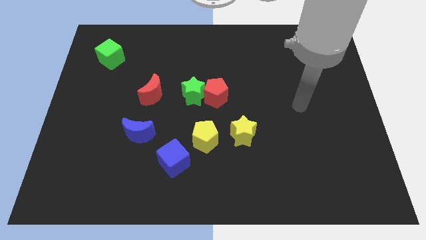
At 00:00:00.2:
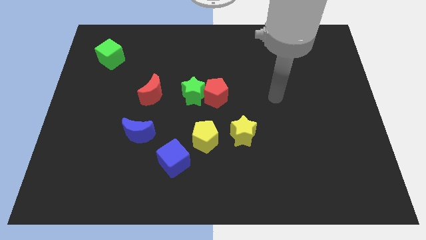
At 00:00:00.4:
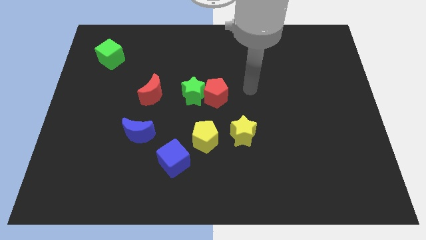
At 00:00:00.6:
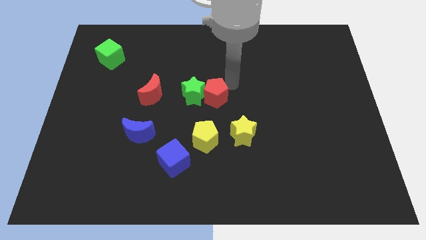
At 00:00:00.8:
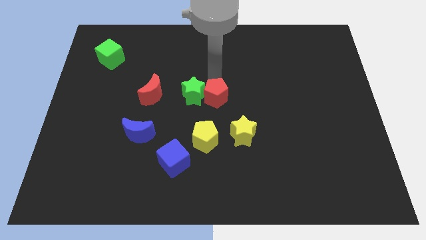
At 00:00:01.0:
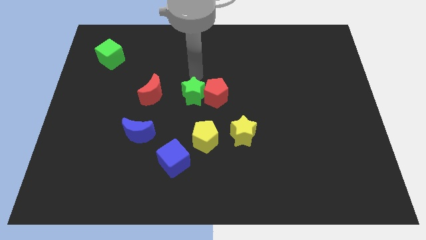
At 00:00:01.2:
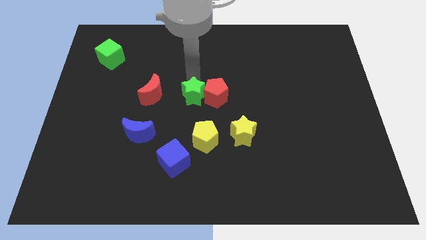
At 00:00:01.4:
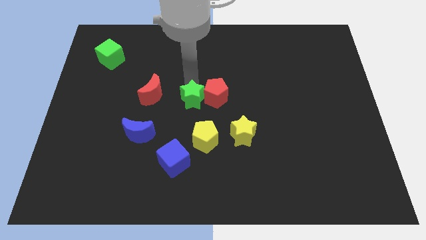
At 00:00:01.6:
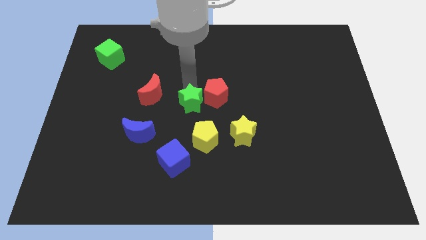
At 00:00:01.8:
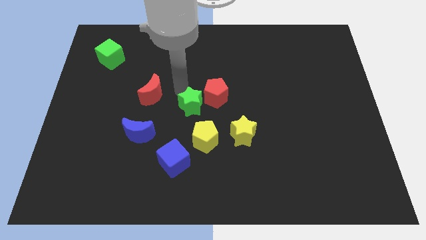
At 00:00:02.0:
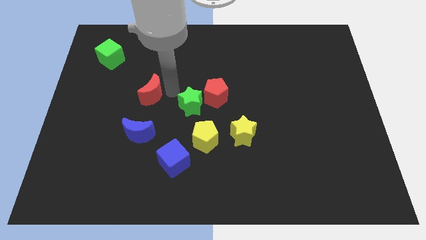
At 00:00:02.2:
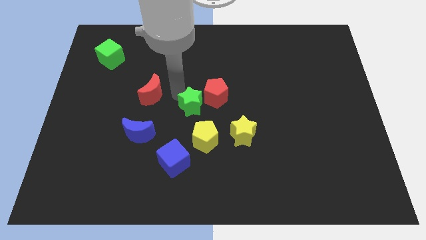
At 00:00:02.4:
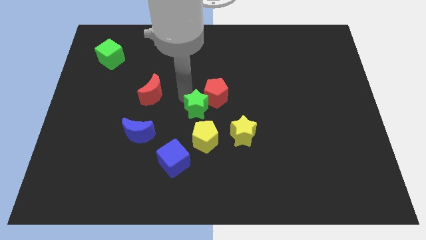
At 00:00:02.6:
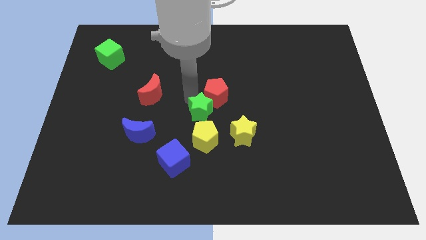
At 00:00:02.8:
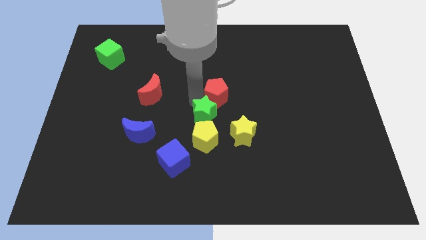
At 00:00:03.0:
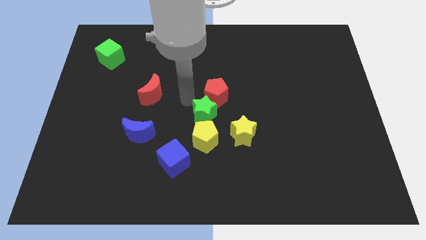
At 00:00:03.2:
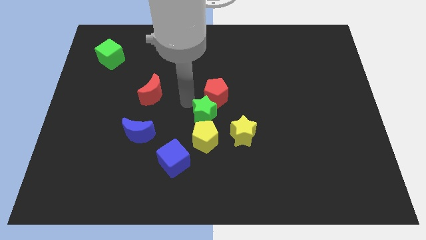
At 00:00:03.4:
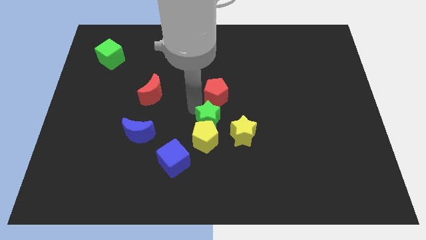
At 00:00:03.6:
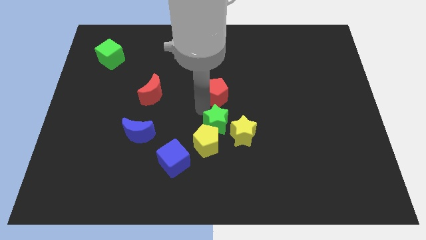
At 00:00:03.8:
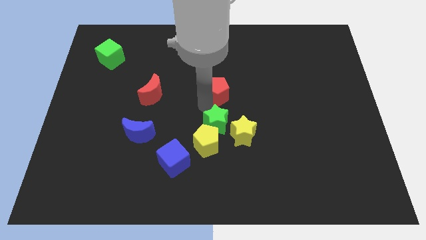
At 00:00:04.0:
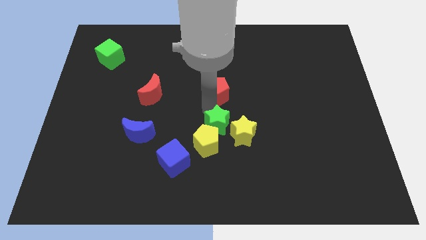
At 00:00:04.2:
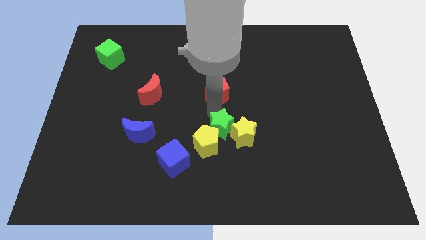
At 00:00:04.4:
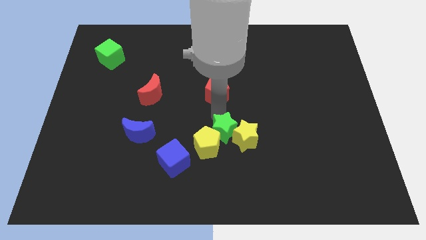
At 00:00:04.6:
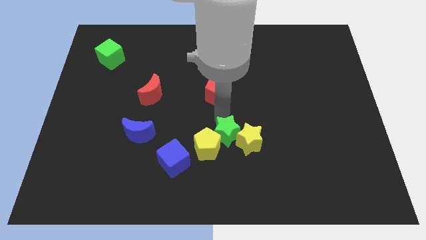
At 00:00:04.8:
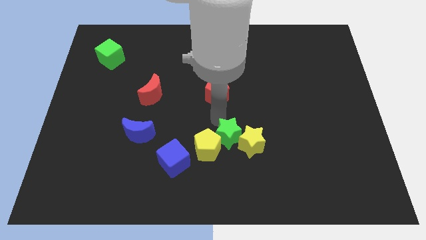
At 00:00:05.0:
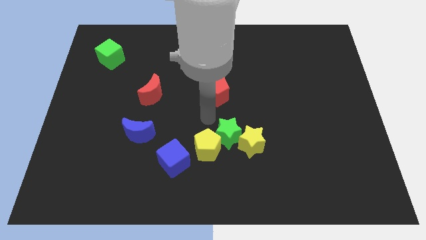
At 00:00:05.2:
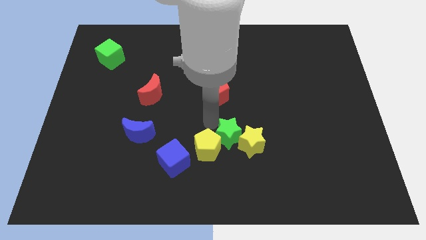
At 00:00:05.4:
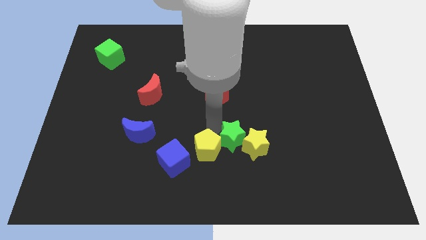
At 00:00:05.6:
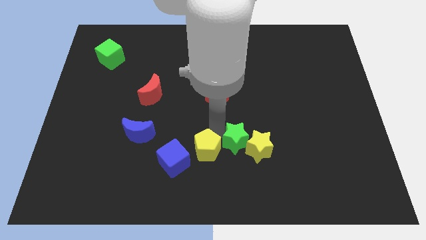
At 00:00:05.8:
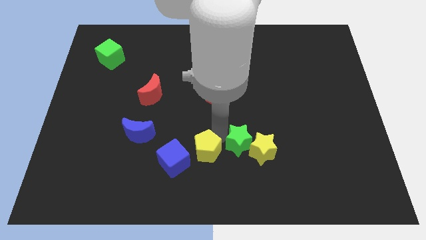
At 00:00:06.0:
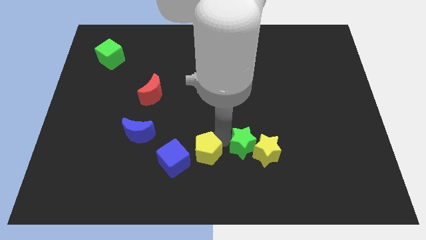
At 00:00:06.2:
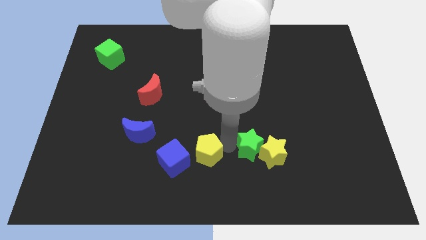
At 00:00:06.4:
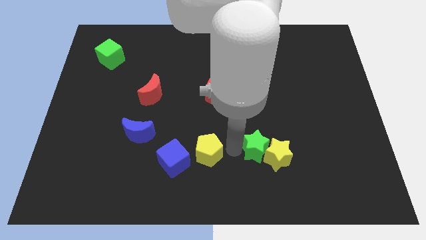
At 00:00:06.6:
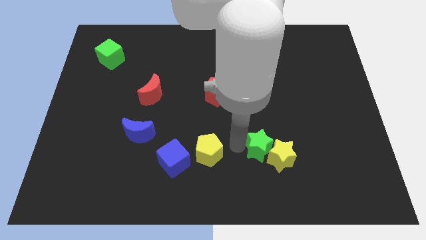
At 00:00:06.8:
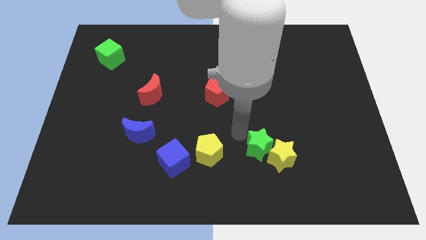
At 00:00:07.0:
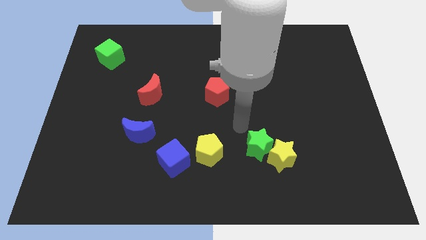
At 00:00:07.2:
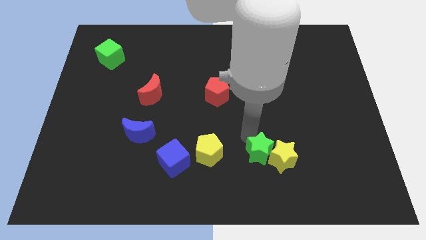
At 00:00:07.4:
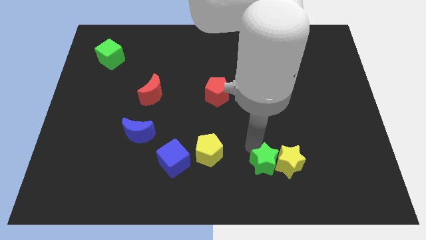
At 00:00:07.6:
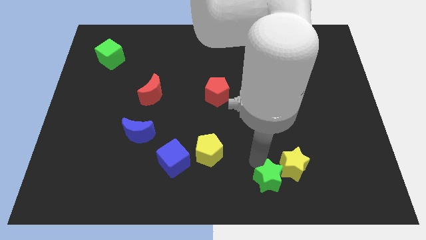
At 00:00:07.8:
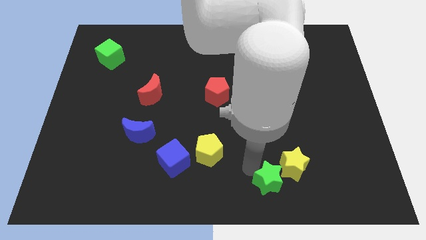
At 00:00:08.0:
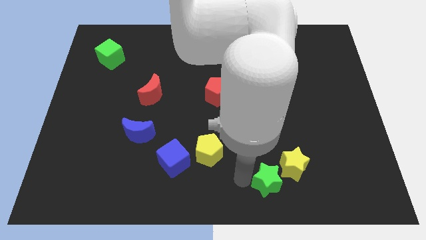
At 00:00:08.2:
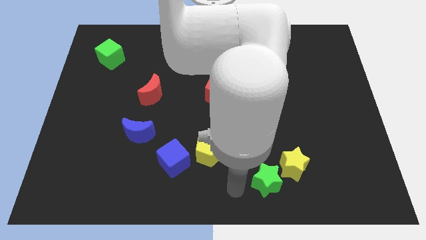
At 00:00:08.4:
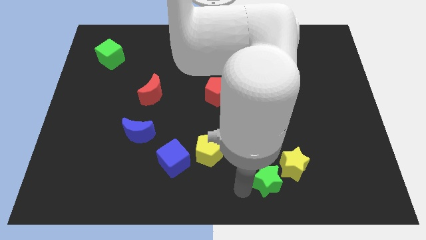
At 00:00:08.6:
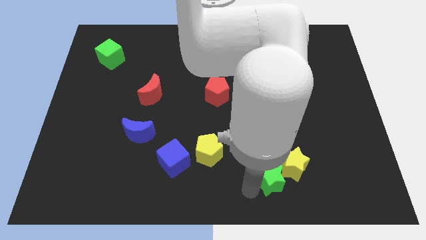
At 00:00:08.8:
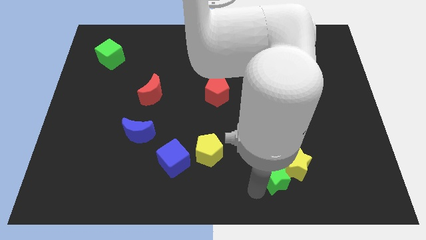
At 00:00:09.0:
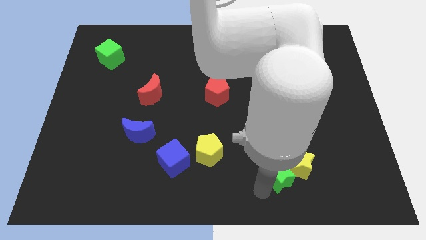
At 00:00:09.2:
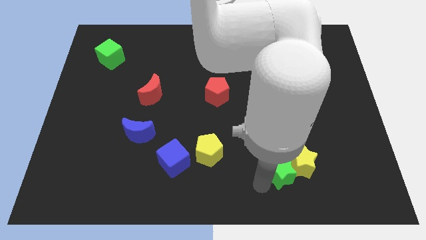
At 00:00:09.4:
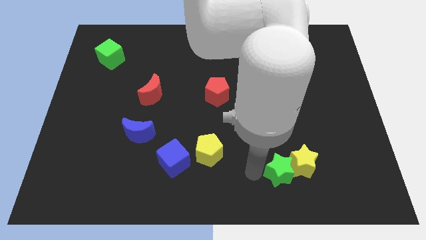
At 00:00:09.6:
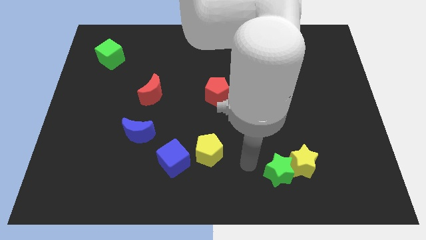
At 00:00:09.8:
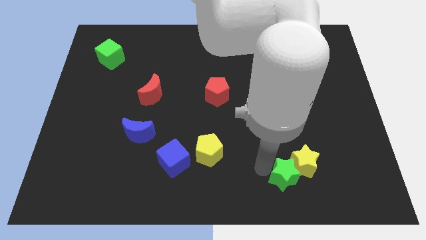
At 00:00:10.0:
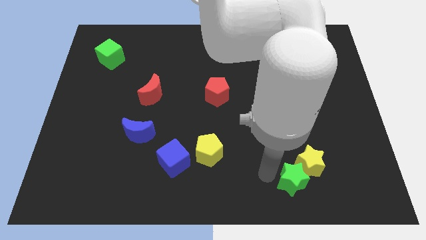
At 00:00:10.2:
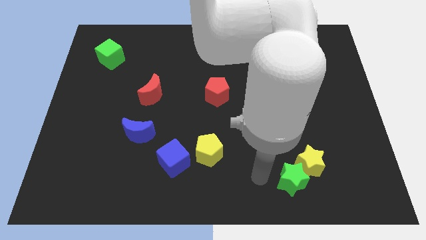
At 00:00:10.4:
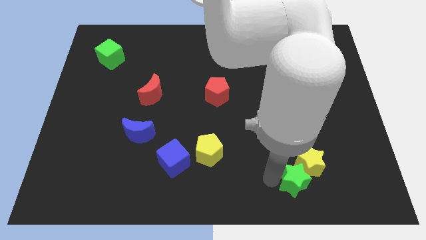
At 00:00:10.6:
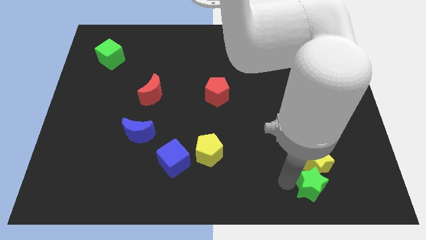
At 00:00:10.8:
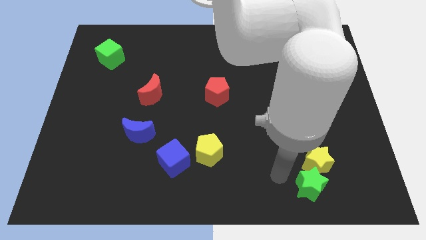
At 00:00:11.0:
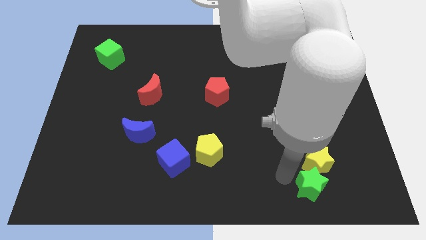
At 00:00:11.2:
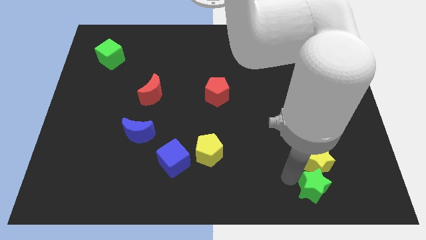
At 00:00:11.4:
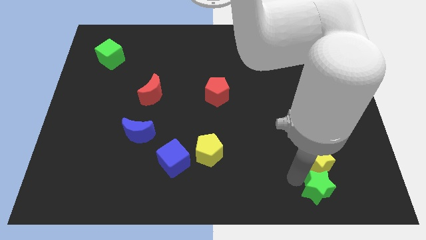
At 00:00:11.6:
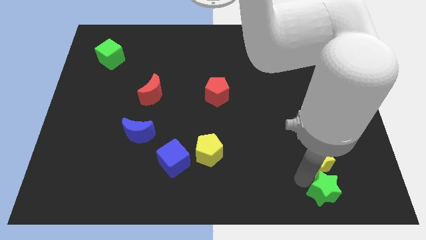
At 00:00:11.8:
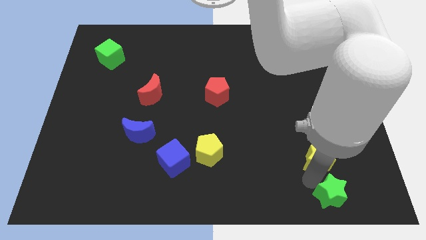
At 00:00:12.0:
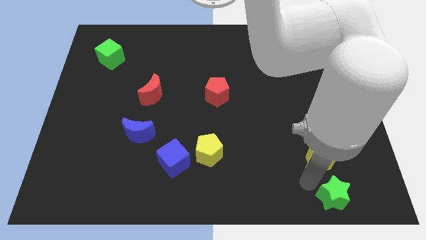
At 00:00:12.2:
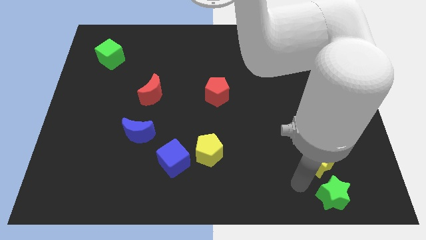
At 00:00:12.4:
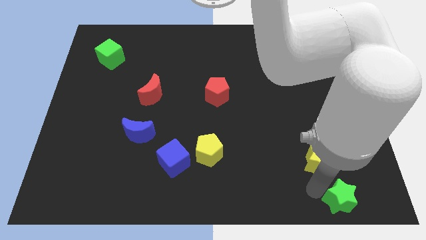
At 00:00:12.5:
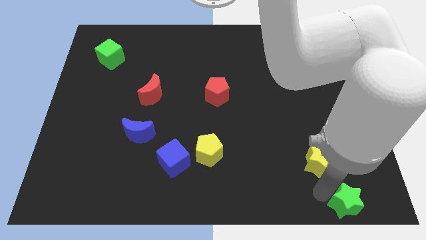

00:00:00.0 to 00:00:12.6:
slide the green star to the bottom right

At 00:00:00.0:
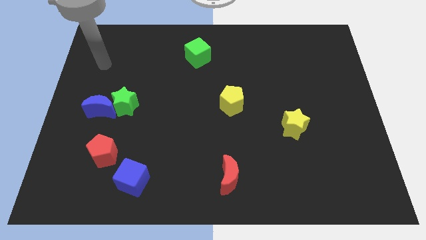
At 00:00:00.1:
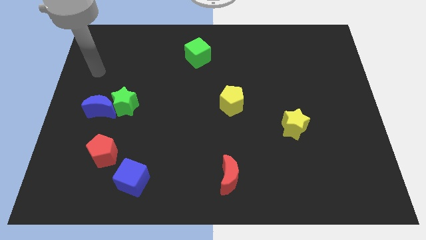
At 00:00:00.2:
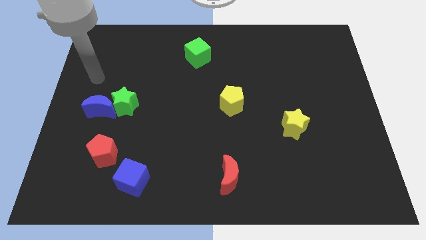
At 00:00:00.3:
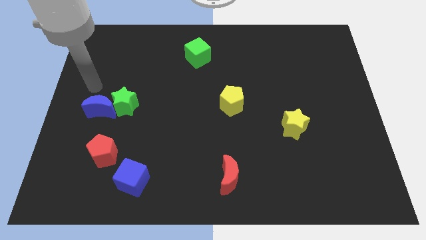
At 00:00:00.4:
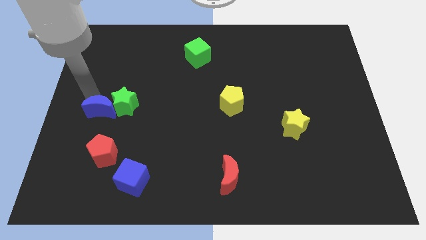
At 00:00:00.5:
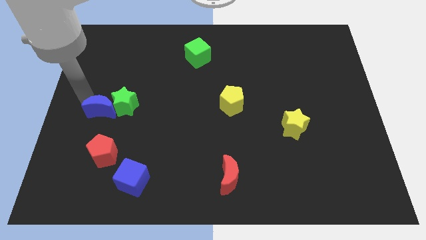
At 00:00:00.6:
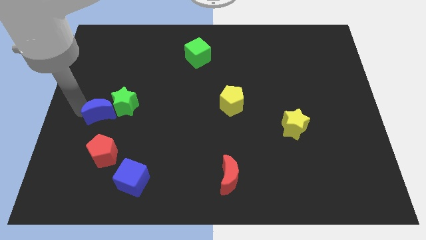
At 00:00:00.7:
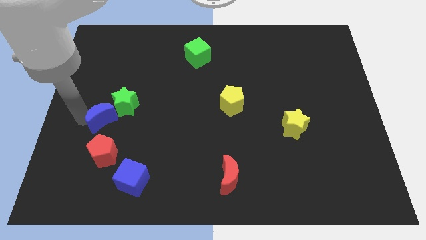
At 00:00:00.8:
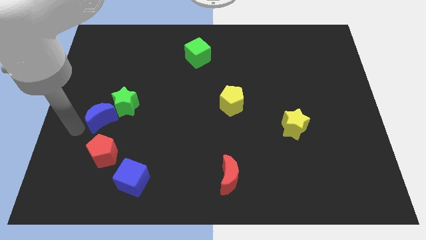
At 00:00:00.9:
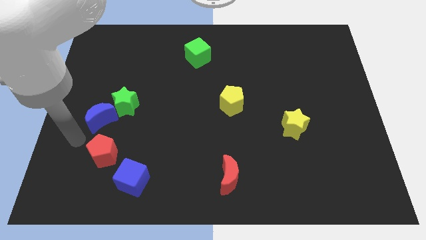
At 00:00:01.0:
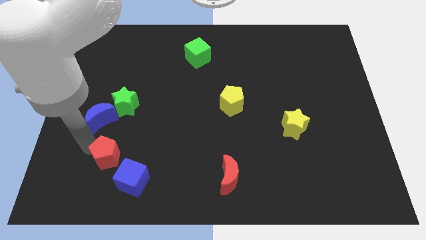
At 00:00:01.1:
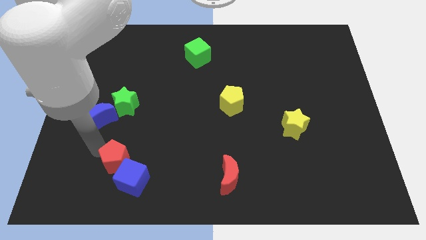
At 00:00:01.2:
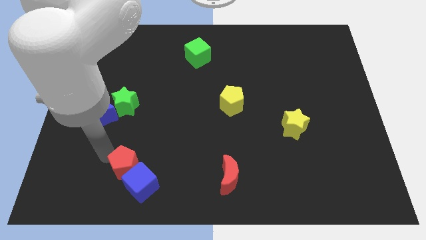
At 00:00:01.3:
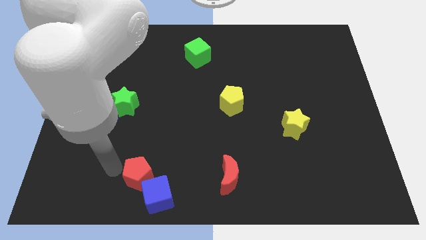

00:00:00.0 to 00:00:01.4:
put the blue cube to the bottom
